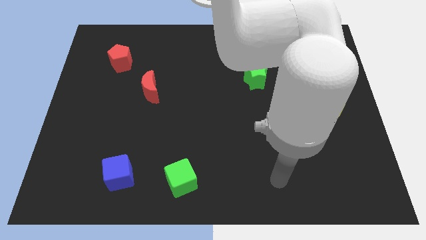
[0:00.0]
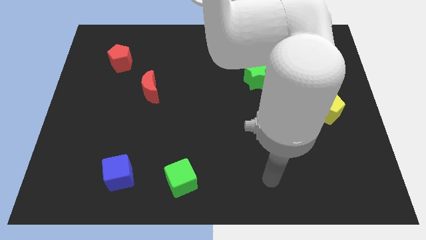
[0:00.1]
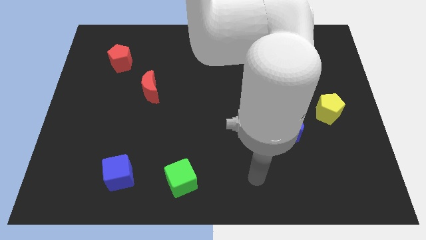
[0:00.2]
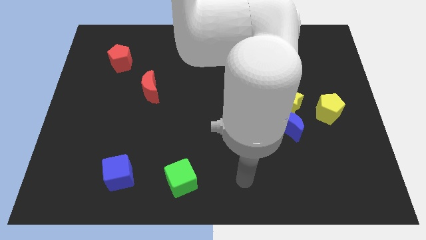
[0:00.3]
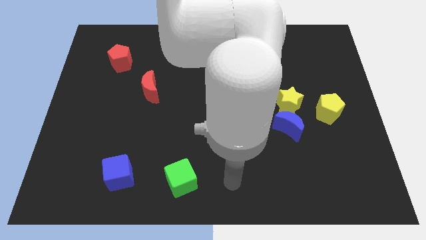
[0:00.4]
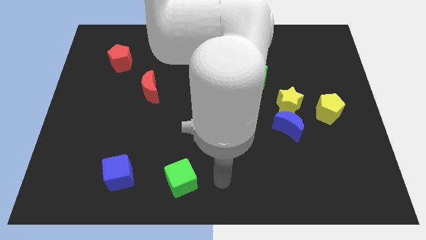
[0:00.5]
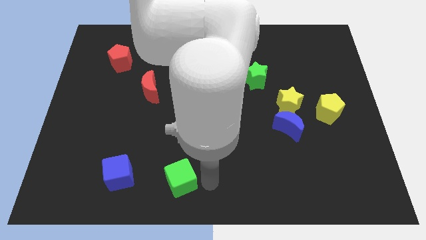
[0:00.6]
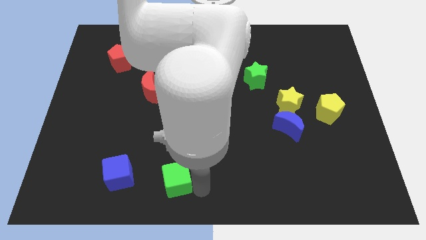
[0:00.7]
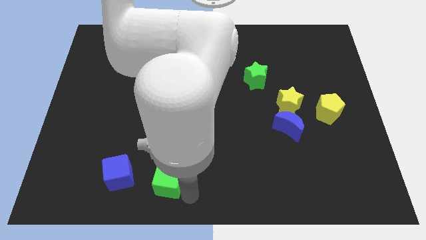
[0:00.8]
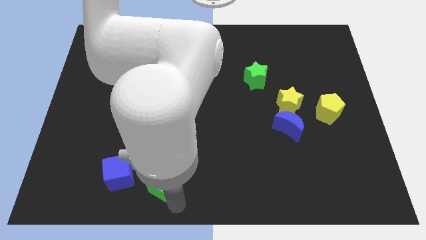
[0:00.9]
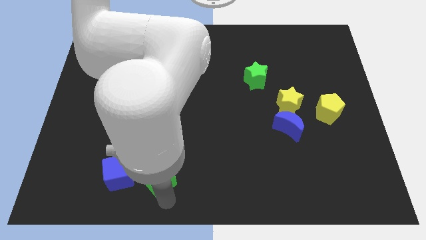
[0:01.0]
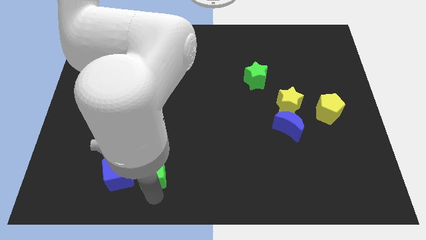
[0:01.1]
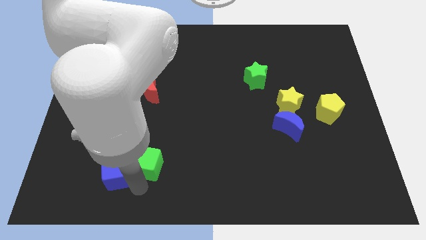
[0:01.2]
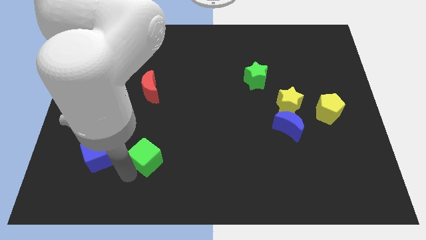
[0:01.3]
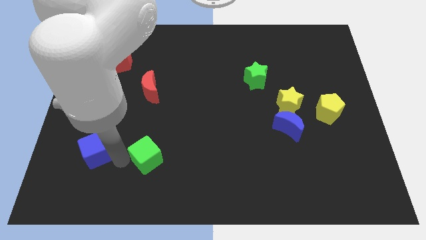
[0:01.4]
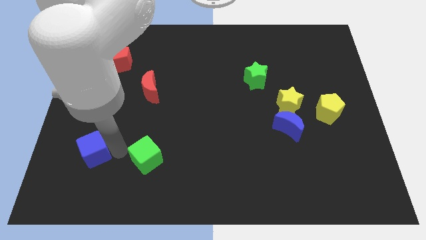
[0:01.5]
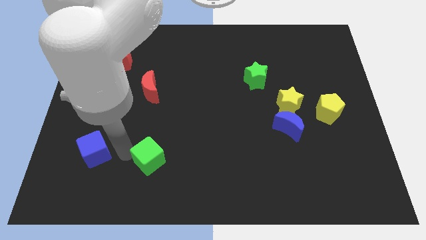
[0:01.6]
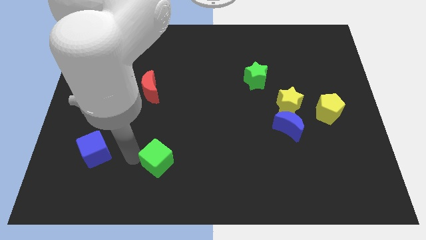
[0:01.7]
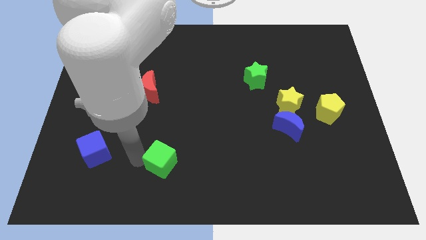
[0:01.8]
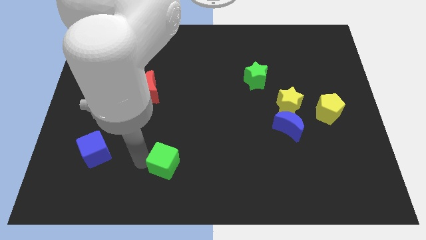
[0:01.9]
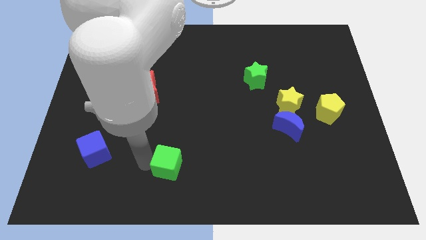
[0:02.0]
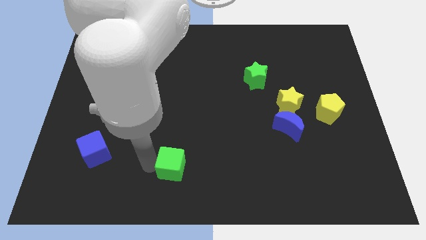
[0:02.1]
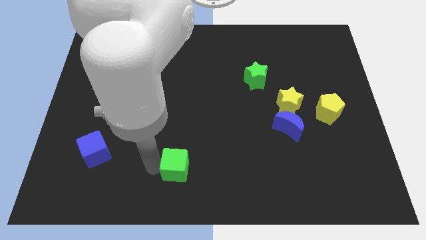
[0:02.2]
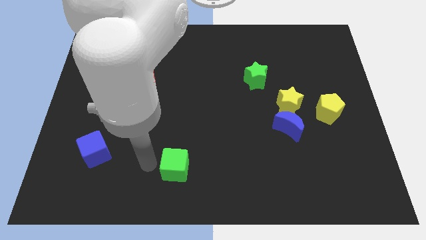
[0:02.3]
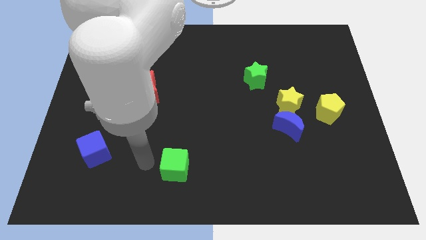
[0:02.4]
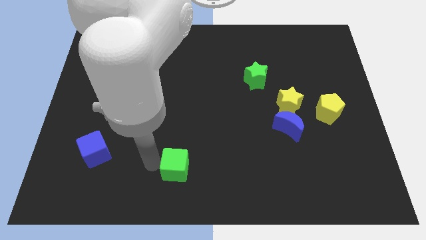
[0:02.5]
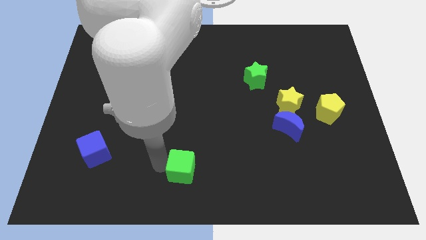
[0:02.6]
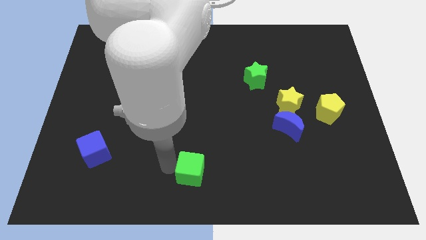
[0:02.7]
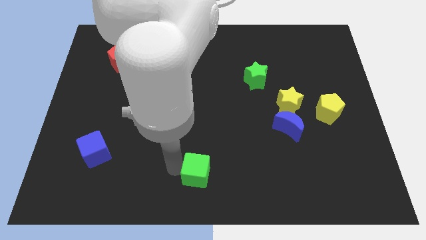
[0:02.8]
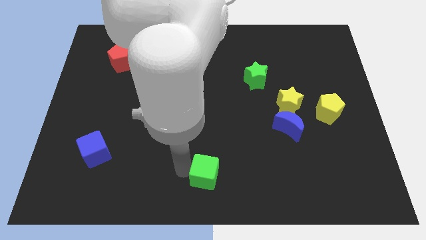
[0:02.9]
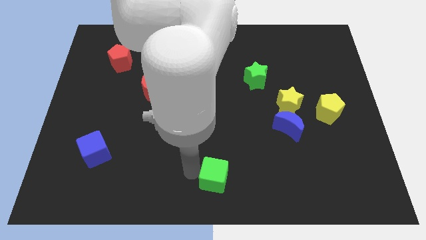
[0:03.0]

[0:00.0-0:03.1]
slightly move the green cube to the right

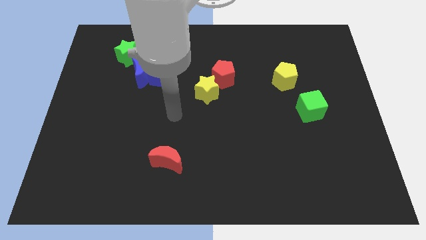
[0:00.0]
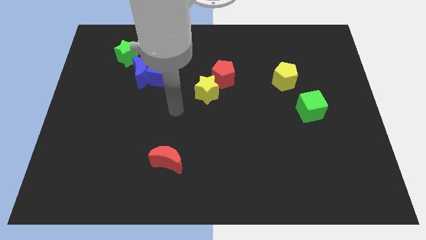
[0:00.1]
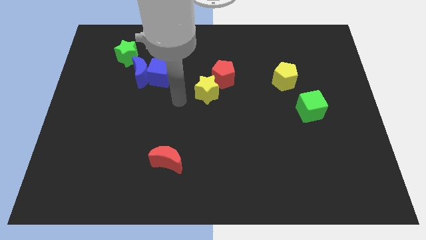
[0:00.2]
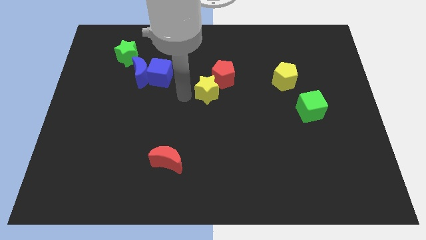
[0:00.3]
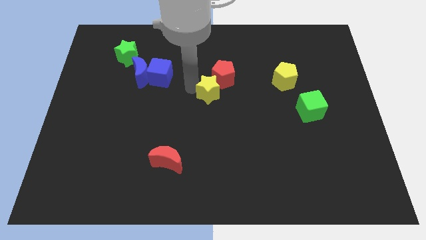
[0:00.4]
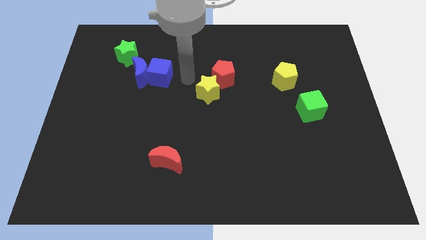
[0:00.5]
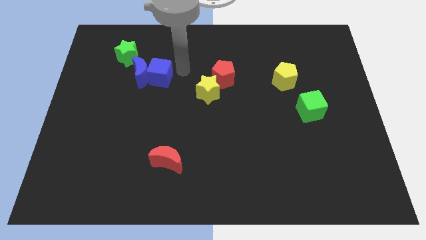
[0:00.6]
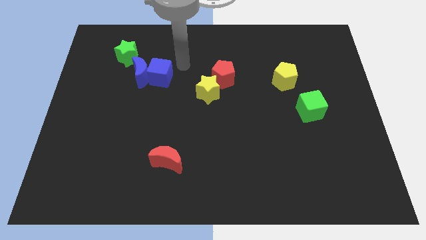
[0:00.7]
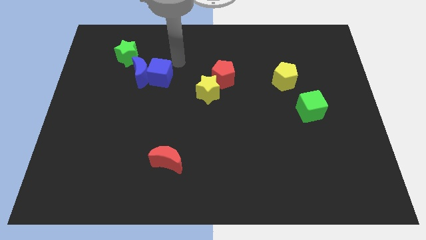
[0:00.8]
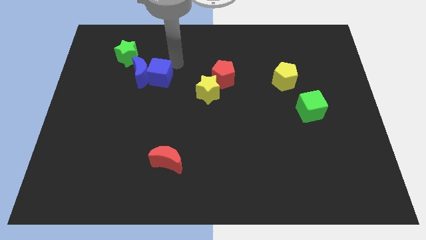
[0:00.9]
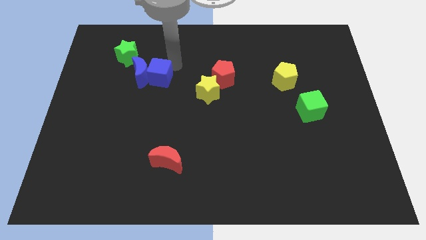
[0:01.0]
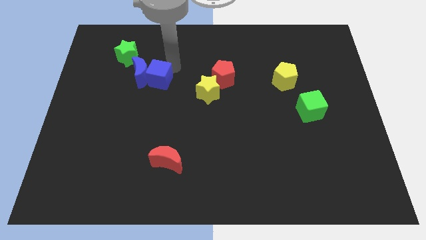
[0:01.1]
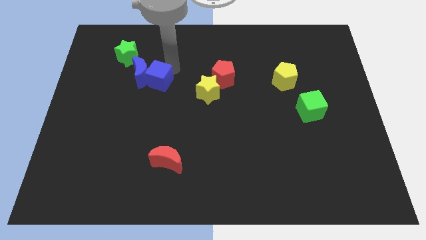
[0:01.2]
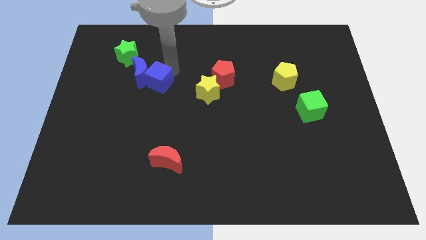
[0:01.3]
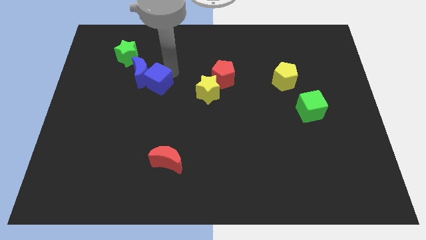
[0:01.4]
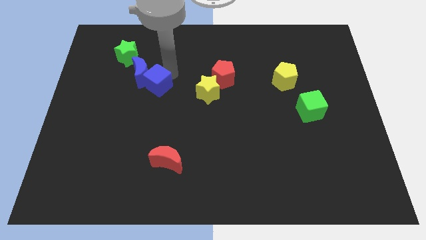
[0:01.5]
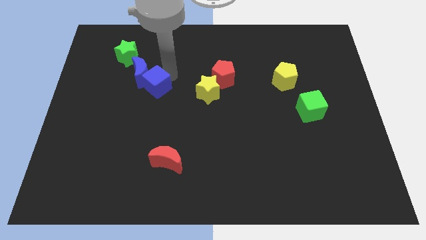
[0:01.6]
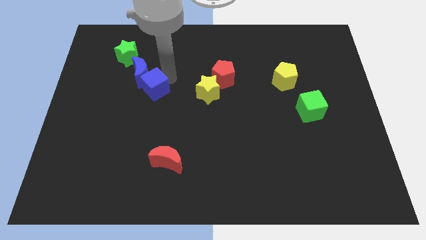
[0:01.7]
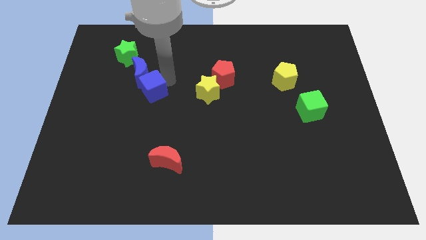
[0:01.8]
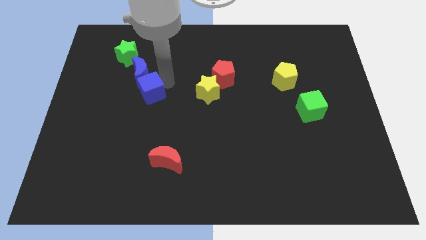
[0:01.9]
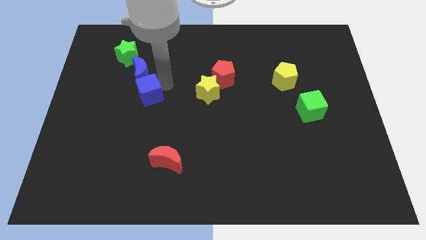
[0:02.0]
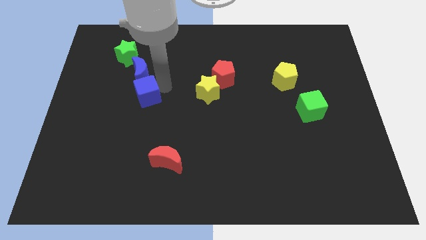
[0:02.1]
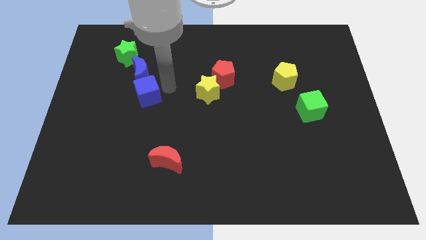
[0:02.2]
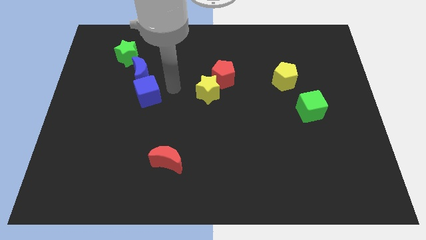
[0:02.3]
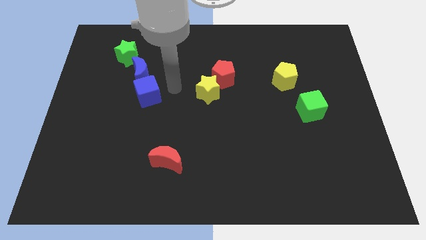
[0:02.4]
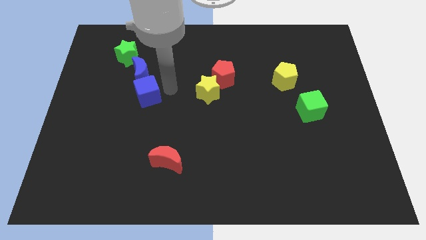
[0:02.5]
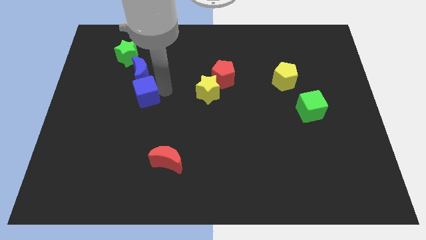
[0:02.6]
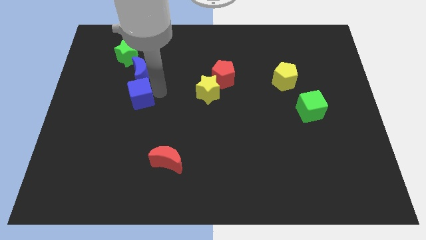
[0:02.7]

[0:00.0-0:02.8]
push the blue cube diagonally down and left somewhat

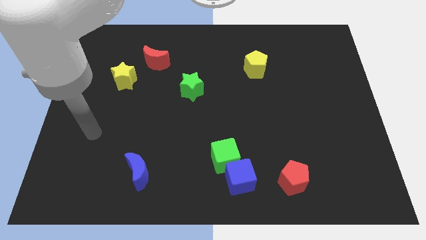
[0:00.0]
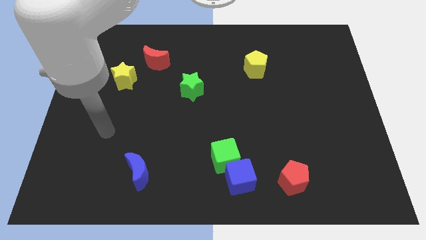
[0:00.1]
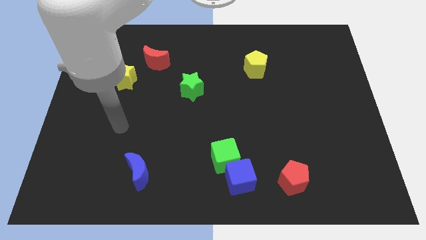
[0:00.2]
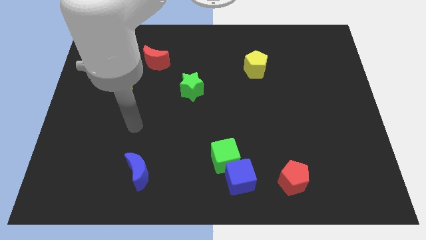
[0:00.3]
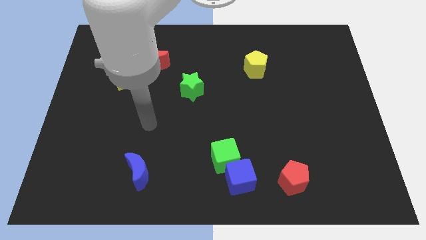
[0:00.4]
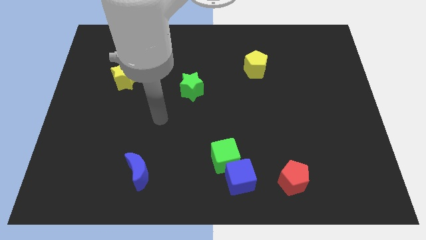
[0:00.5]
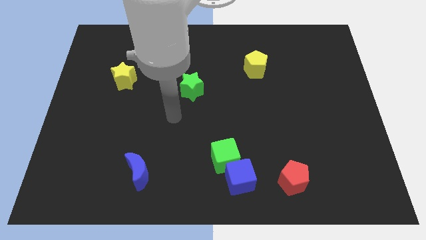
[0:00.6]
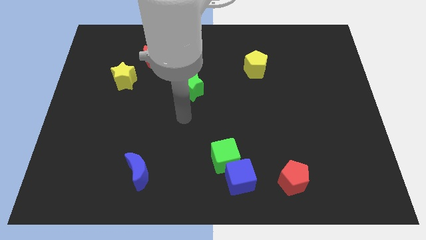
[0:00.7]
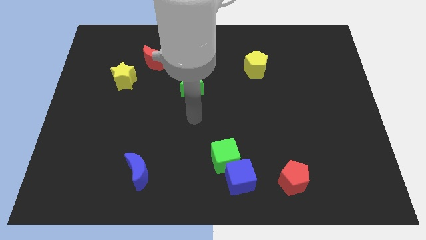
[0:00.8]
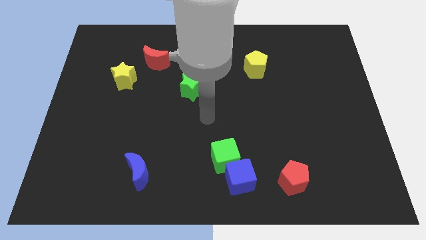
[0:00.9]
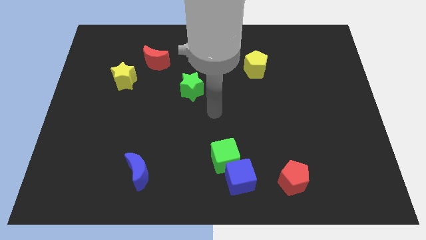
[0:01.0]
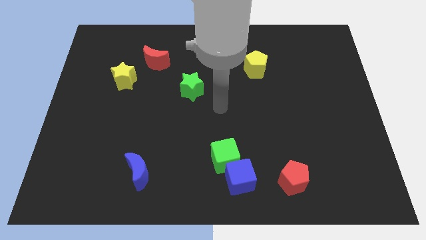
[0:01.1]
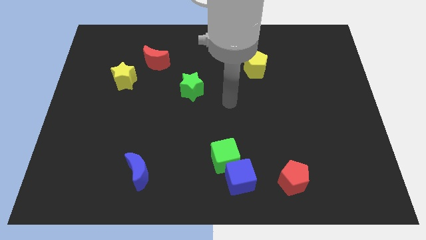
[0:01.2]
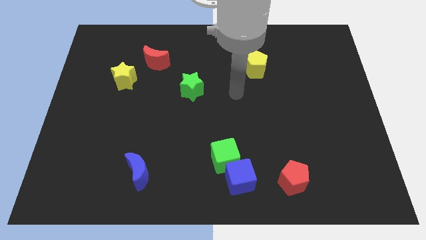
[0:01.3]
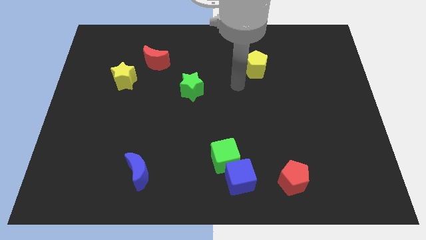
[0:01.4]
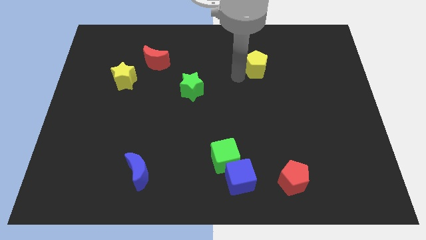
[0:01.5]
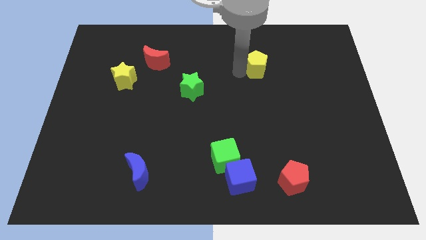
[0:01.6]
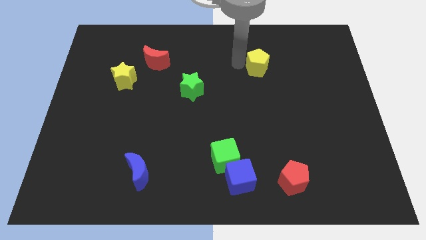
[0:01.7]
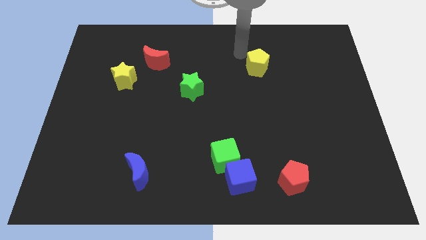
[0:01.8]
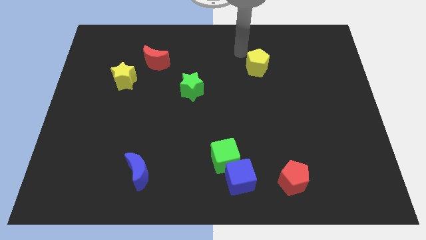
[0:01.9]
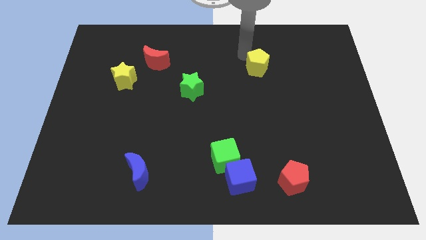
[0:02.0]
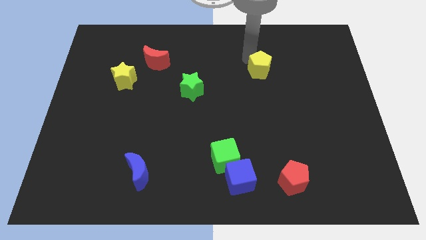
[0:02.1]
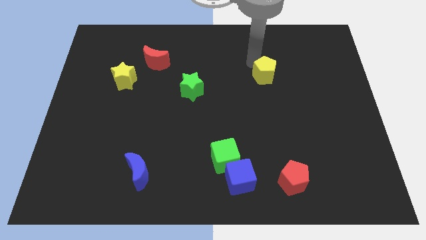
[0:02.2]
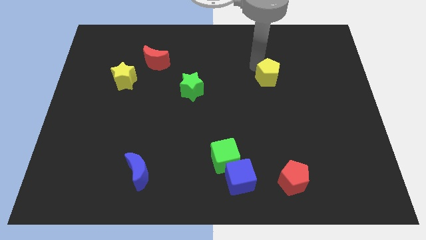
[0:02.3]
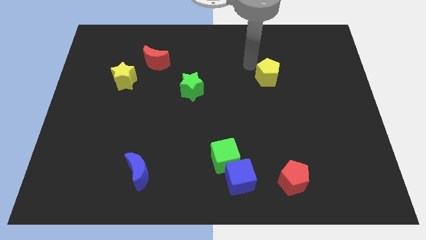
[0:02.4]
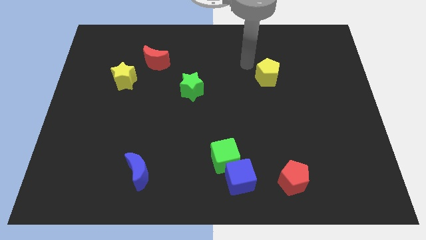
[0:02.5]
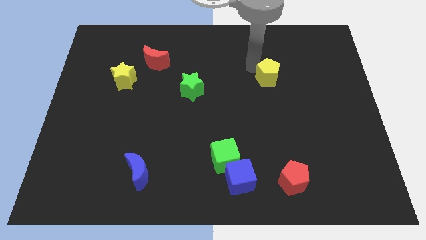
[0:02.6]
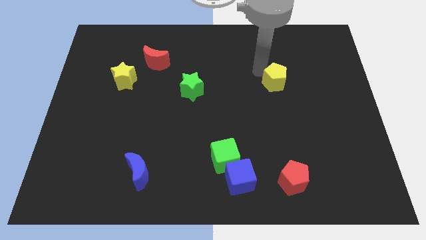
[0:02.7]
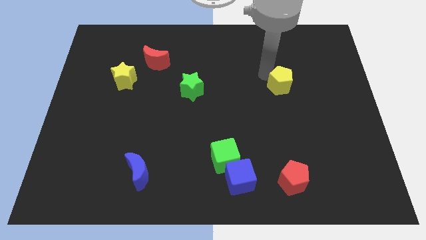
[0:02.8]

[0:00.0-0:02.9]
move the yellow pentagon somewhat down and right diagonally
